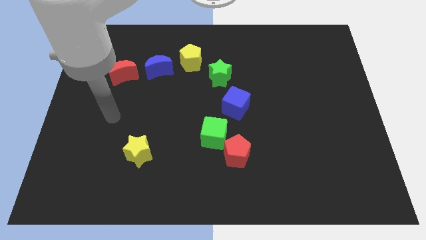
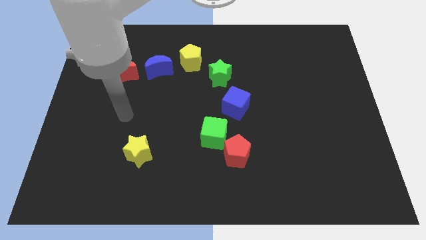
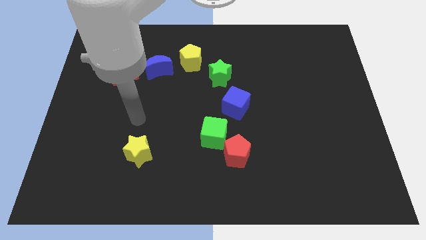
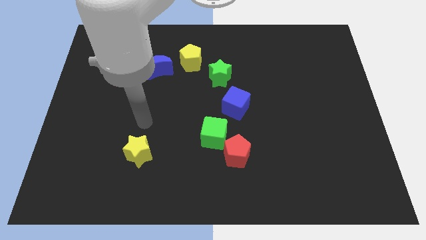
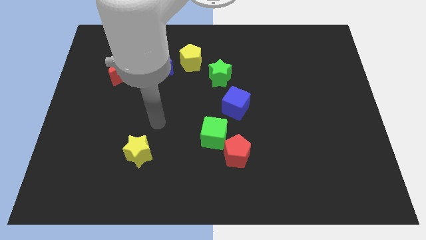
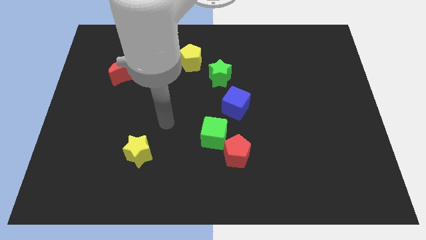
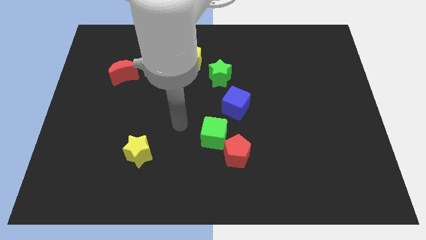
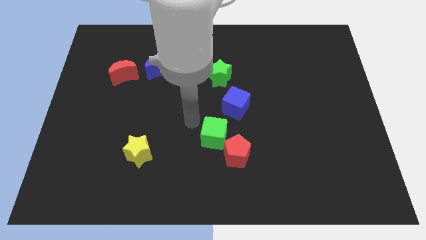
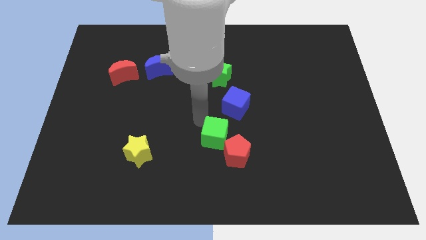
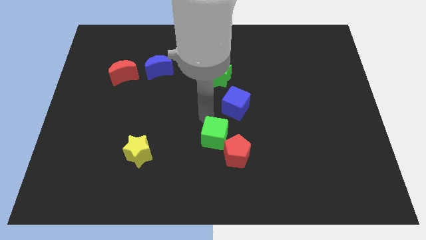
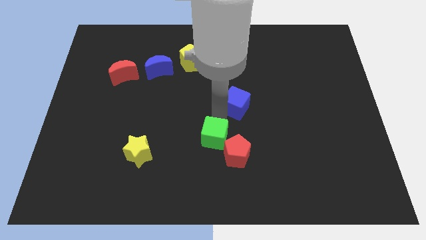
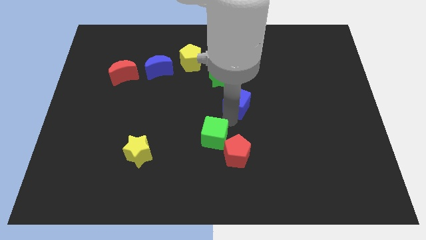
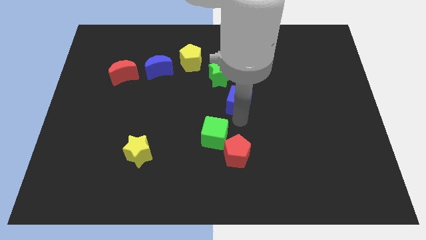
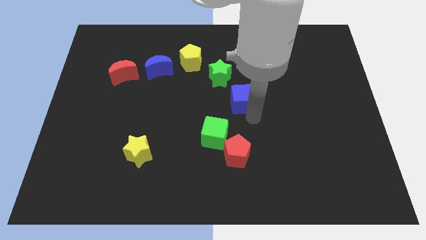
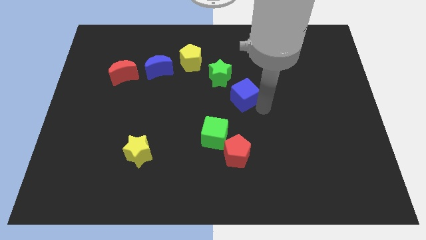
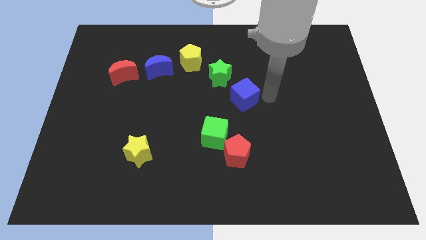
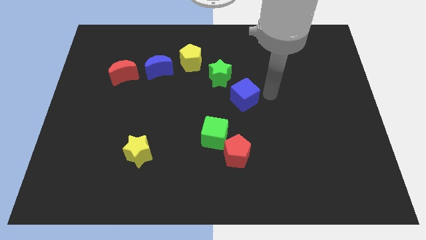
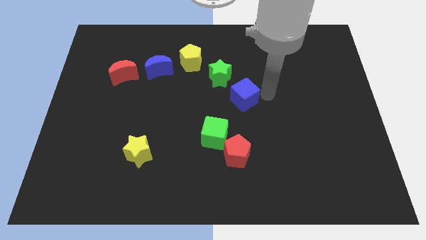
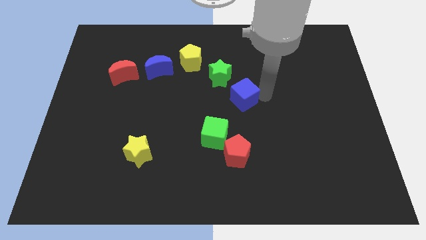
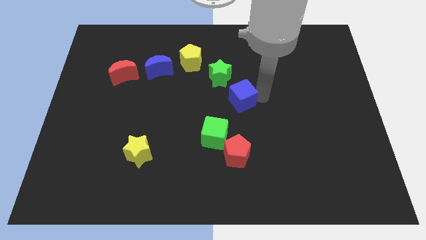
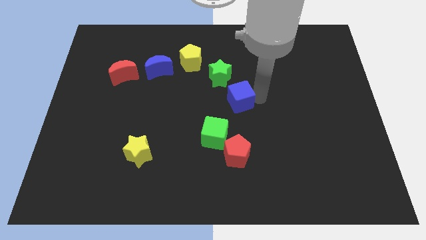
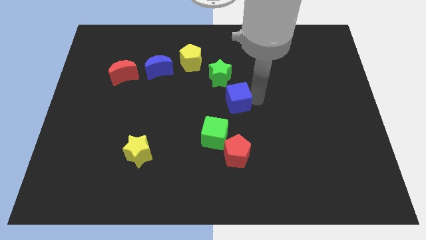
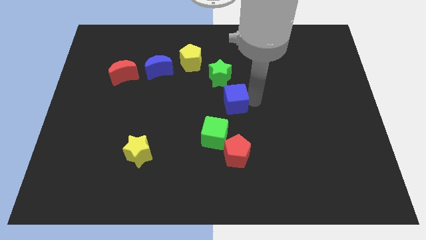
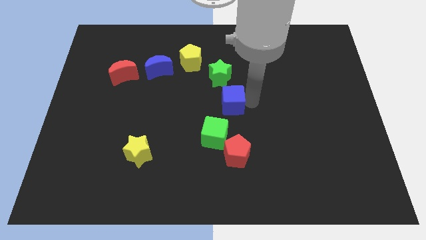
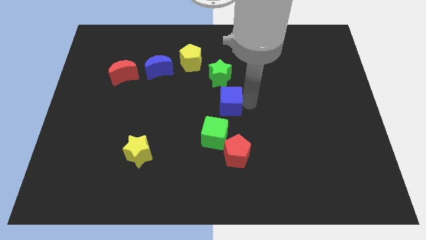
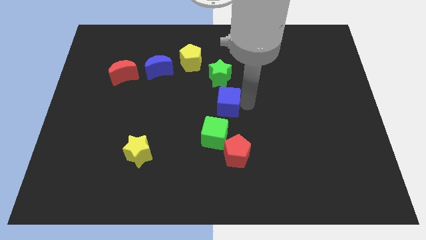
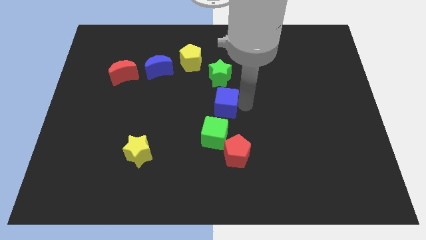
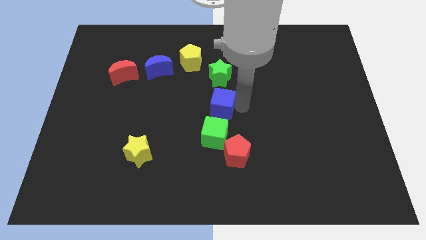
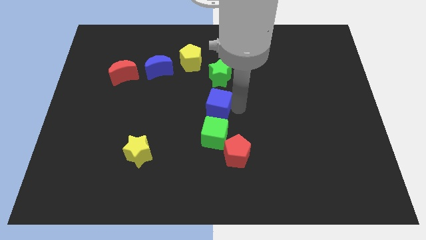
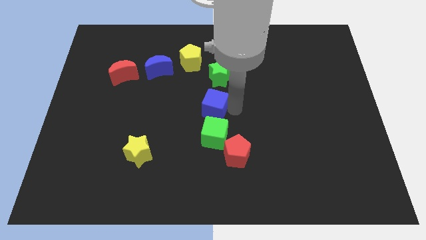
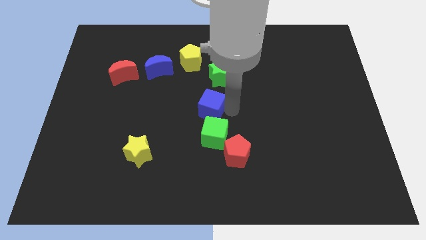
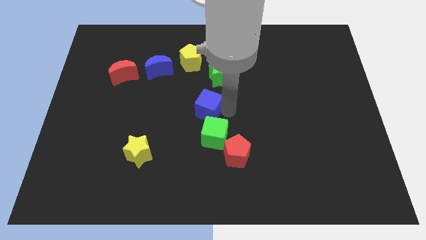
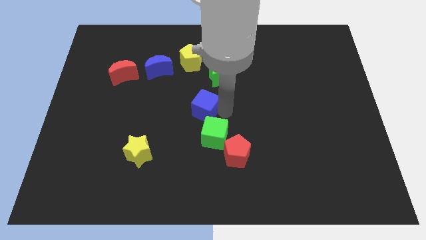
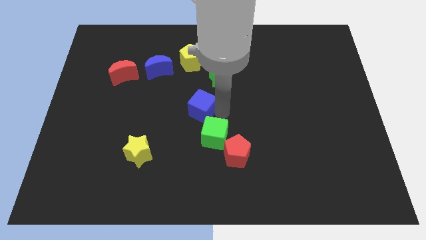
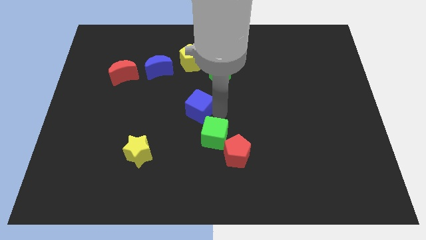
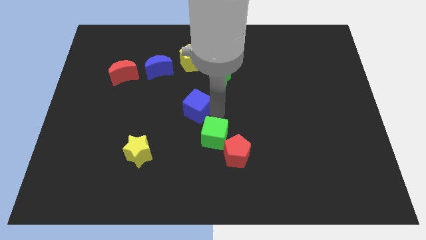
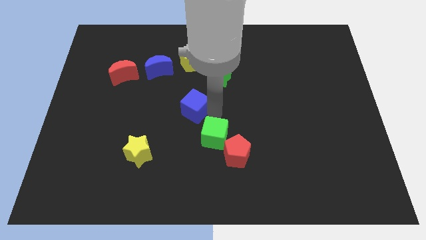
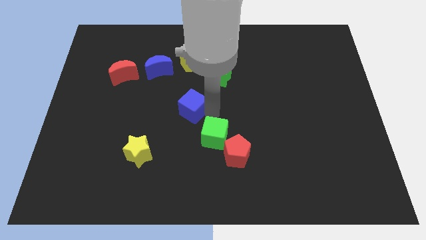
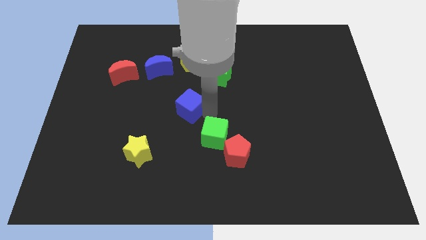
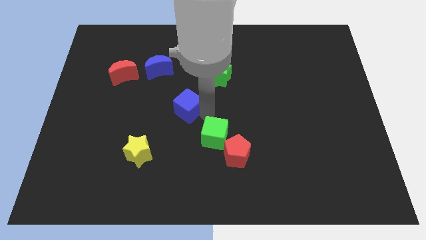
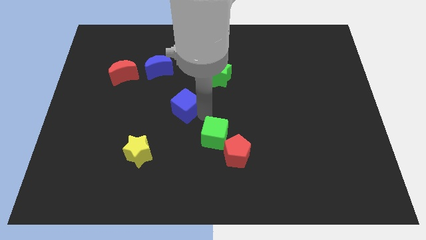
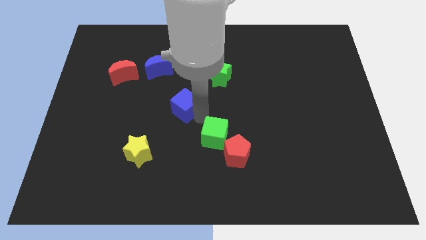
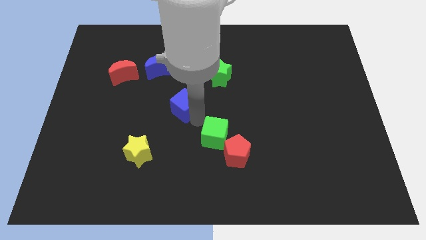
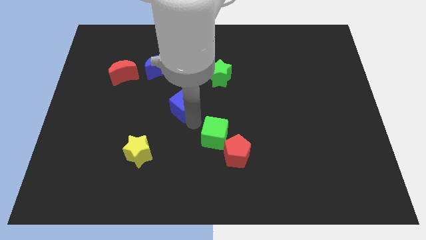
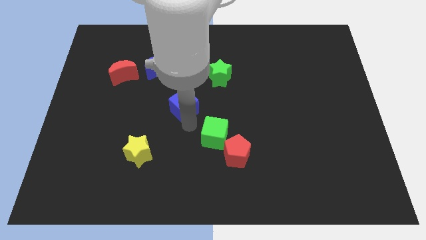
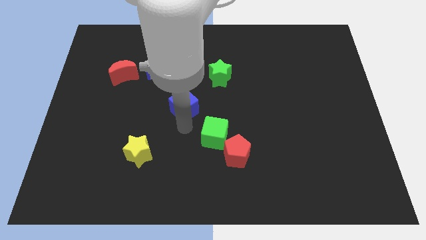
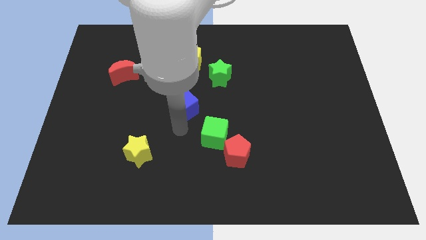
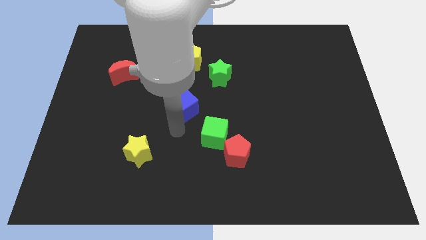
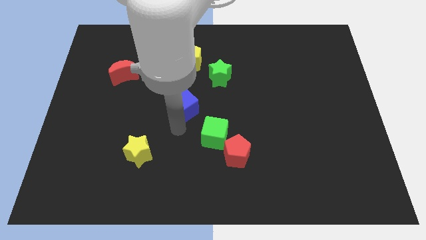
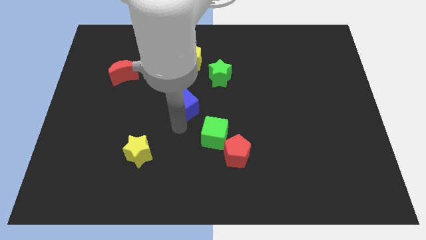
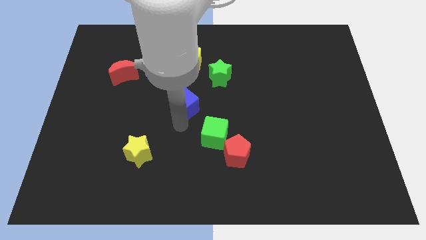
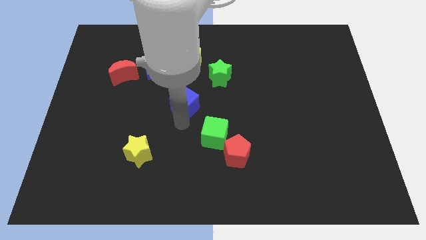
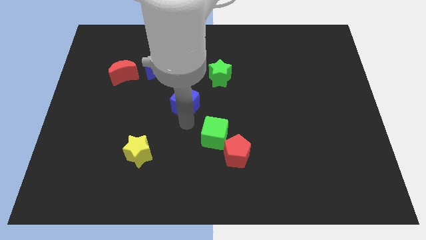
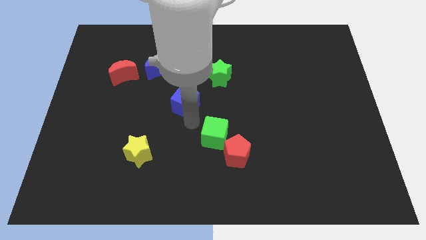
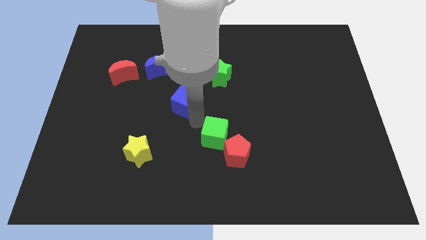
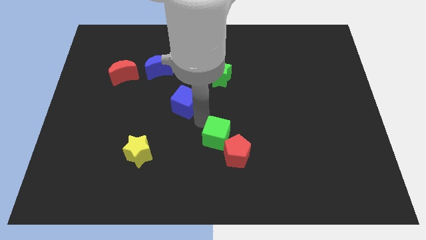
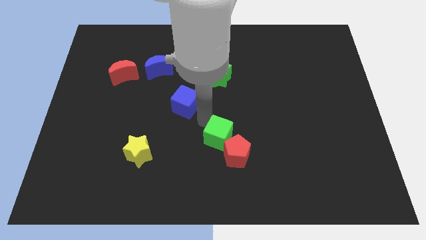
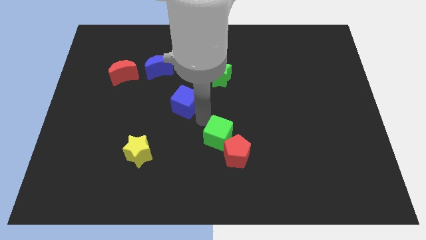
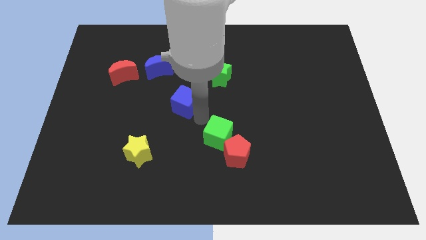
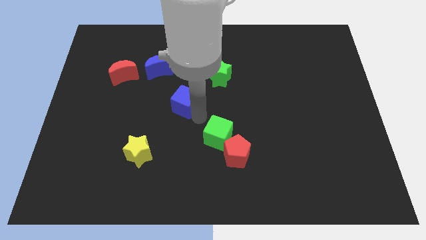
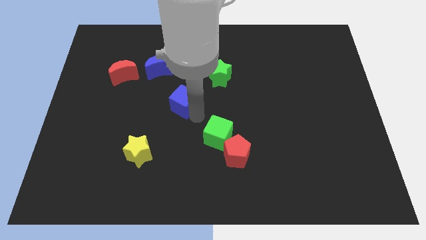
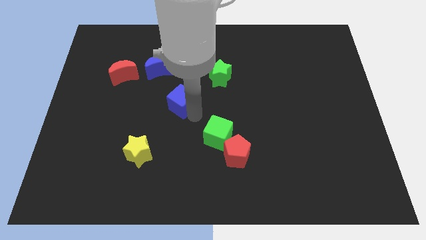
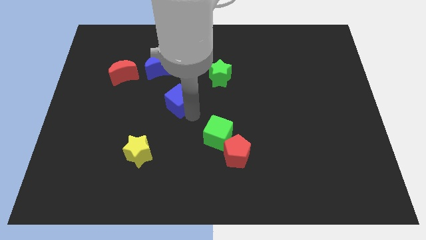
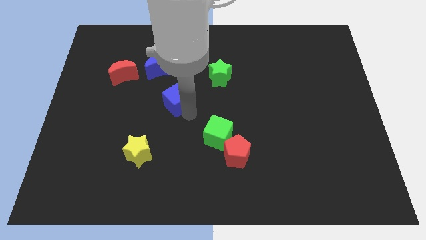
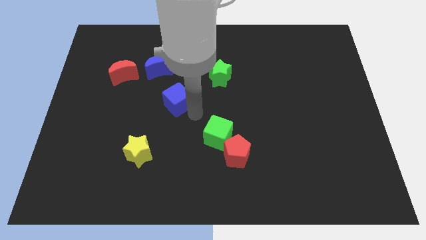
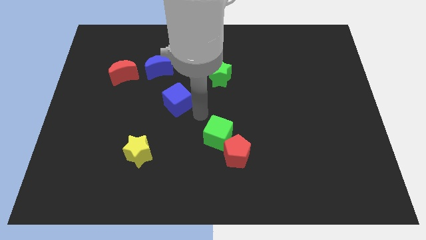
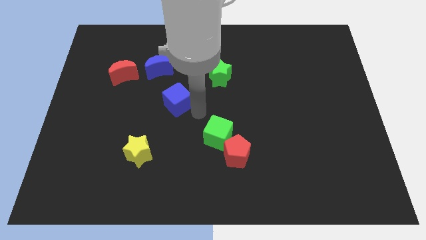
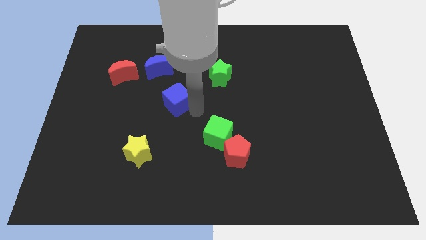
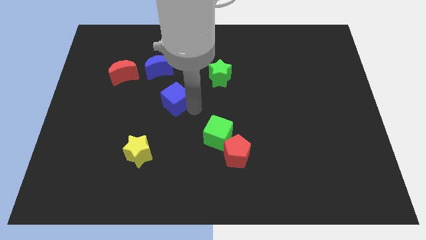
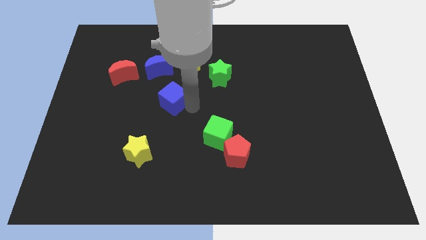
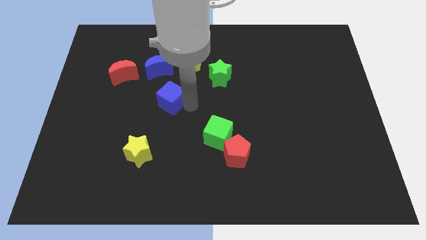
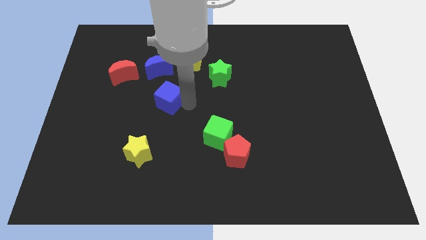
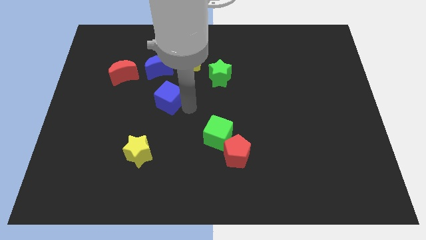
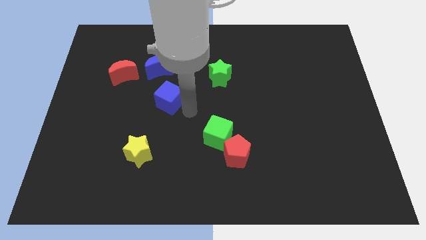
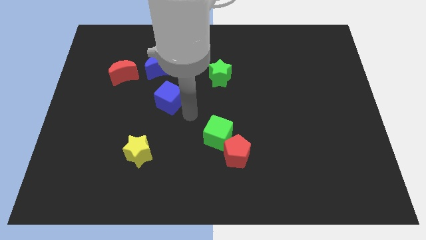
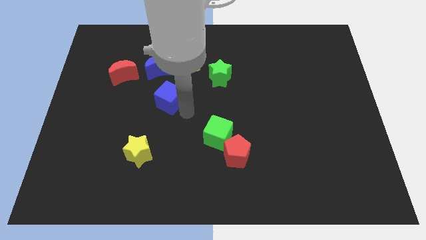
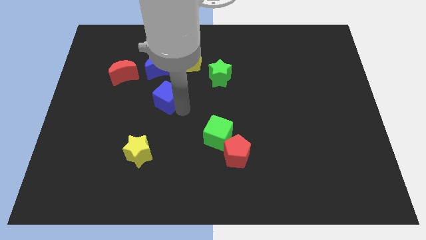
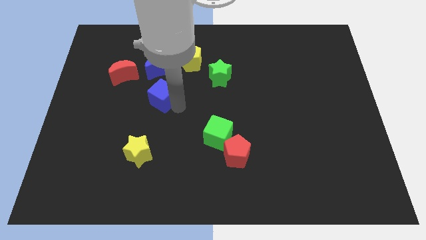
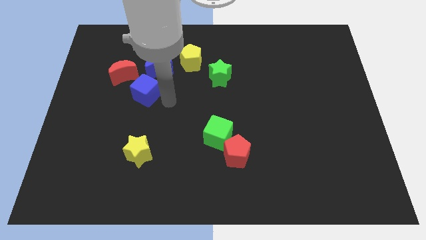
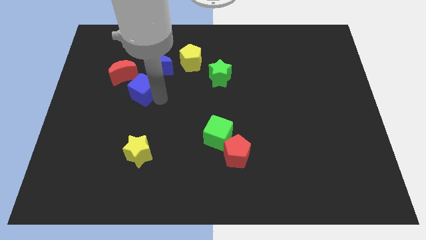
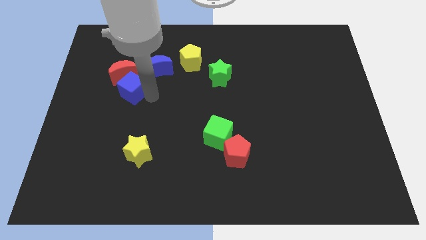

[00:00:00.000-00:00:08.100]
slide the blue cube next to the red moon

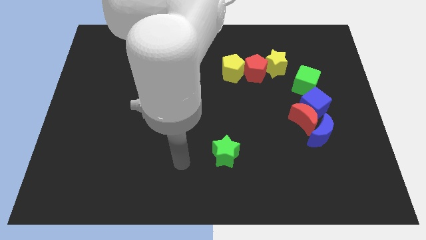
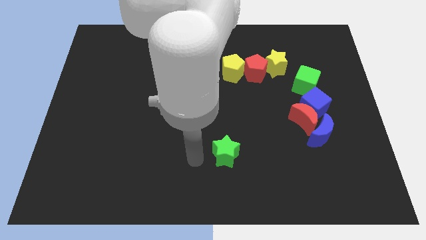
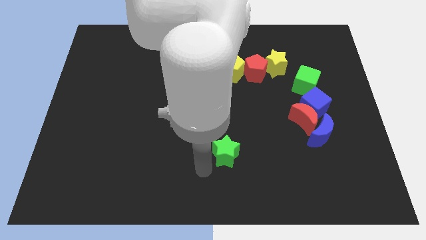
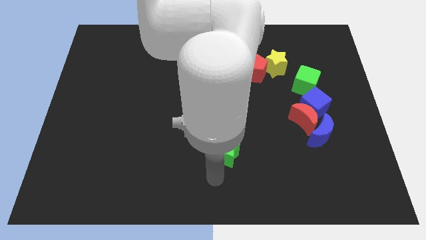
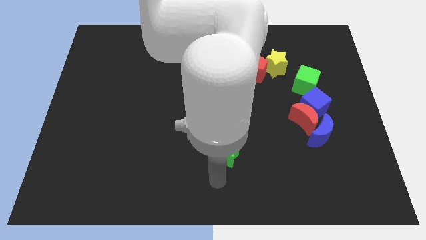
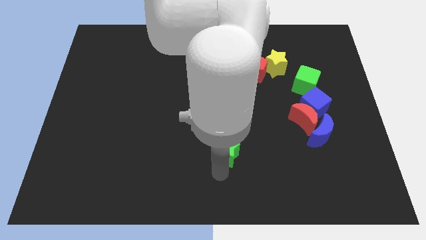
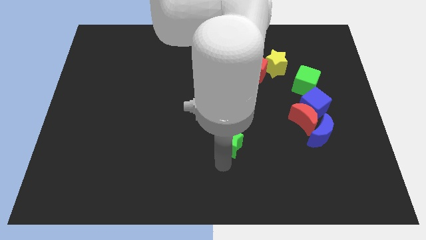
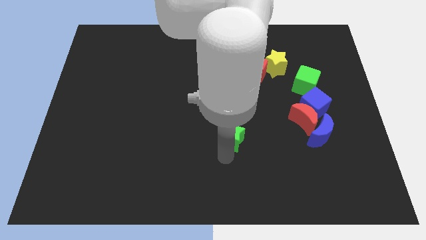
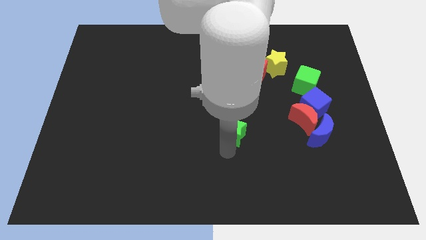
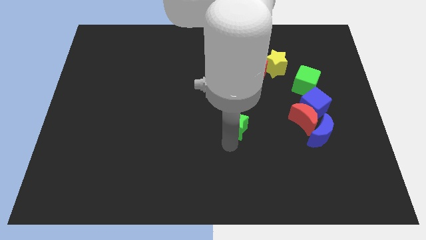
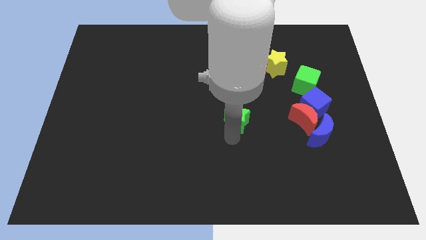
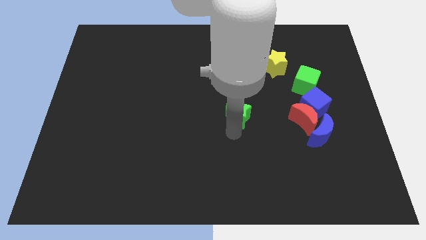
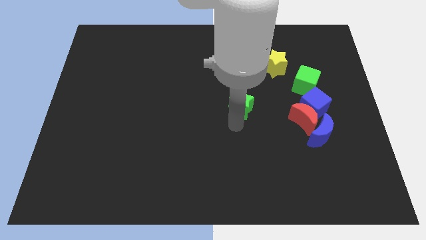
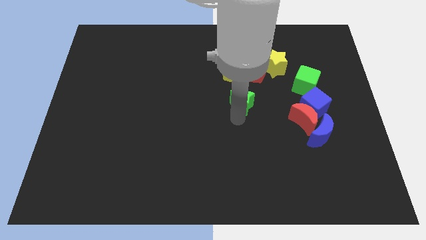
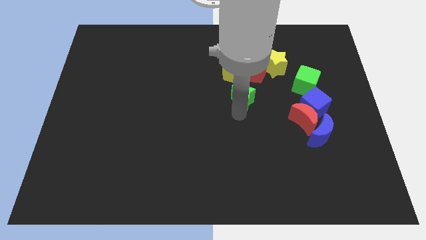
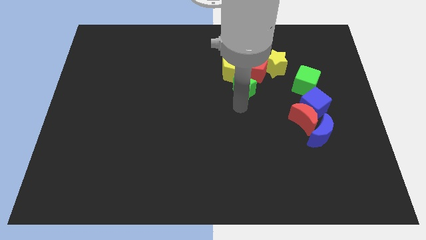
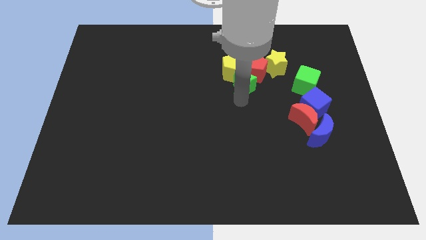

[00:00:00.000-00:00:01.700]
push the green star towards the red pentagon
